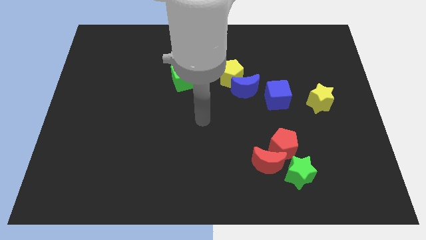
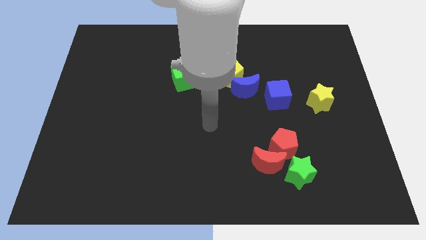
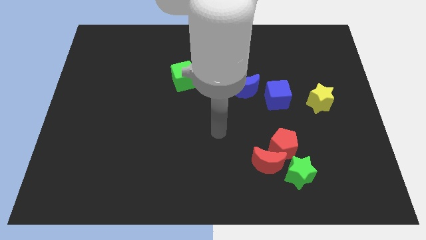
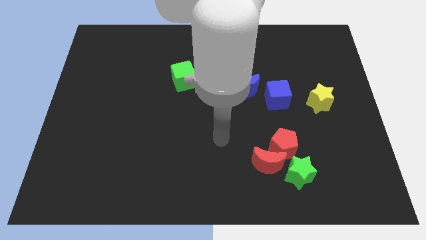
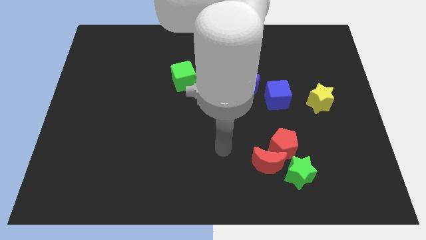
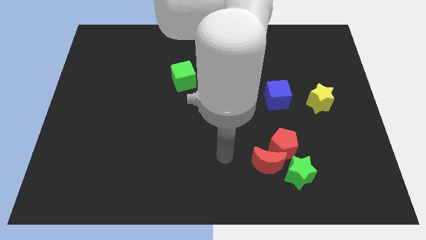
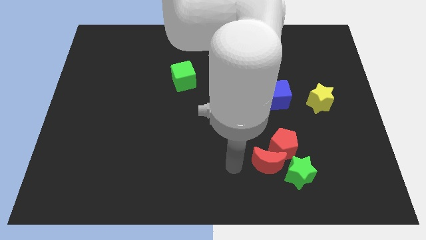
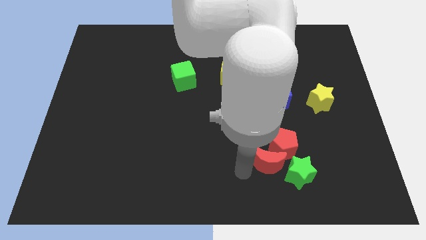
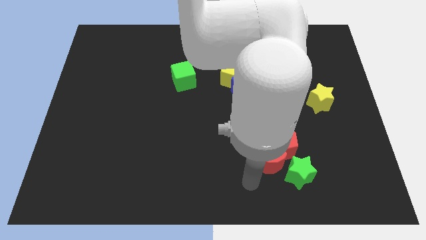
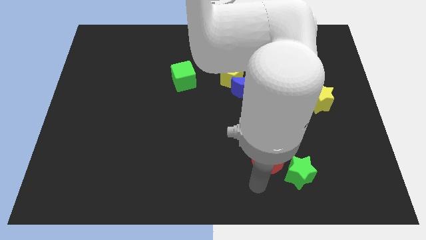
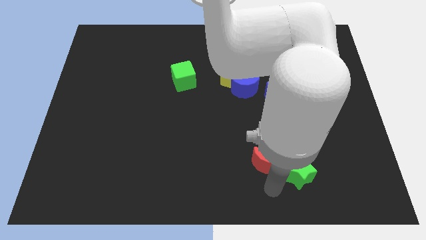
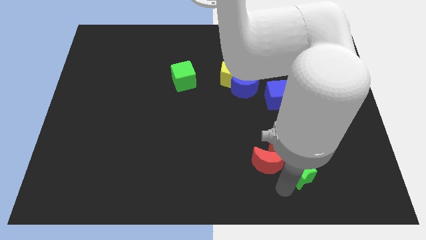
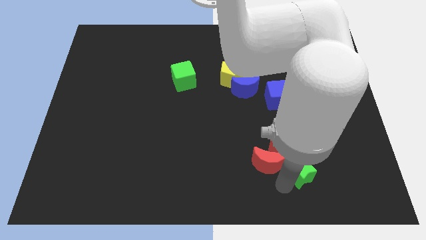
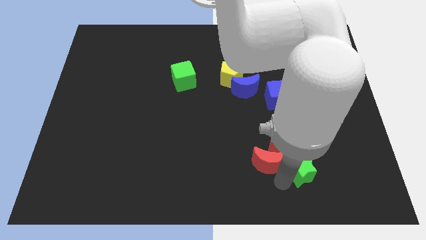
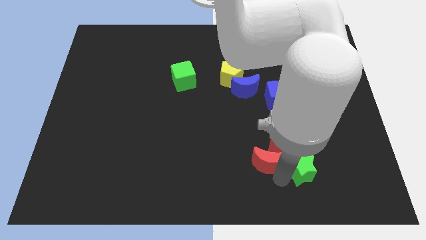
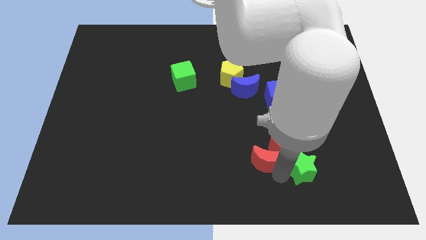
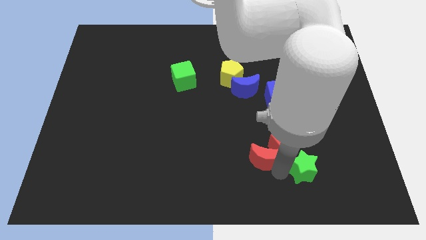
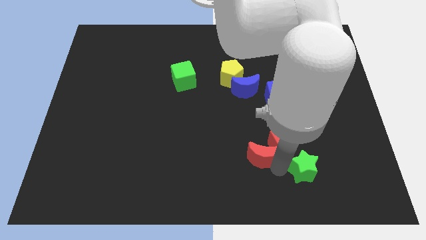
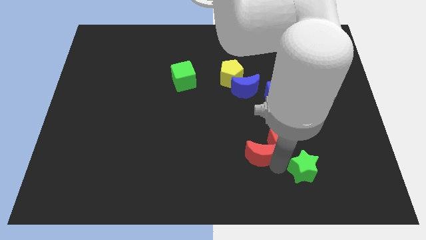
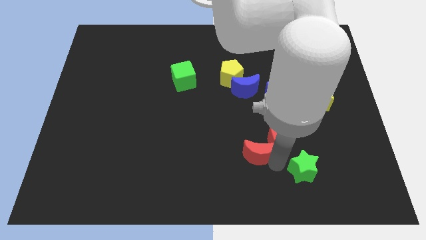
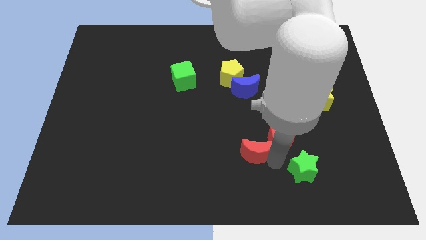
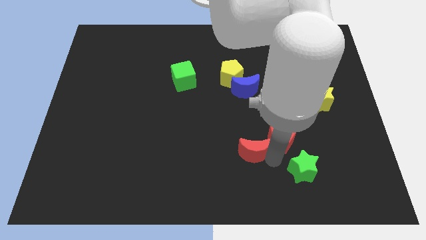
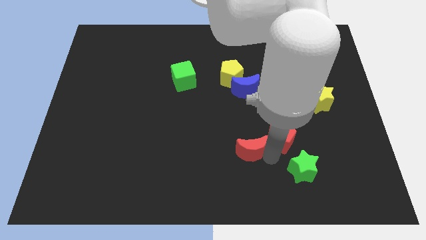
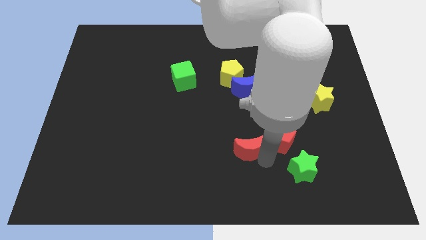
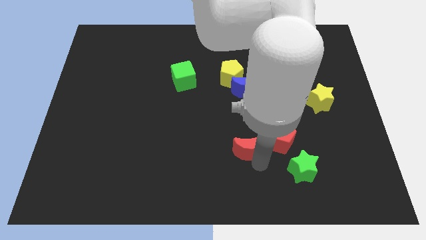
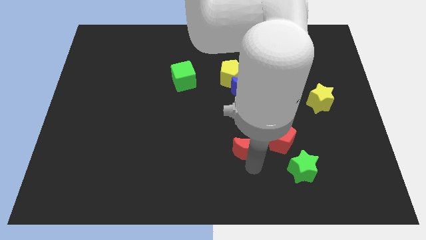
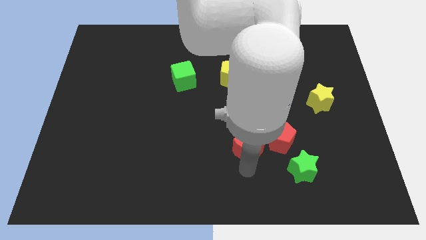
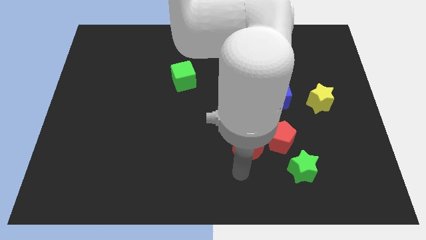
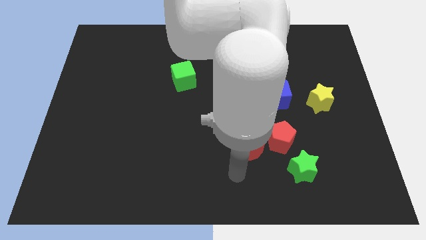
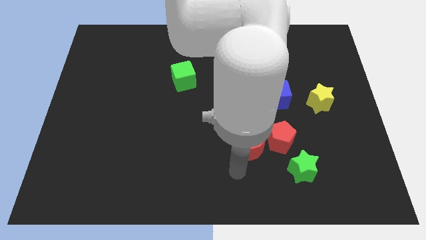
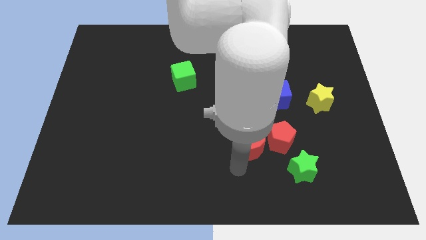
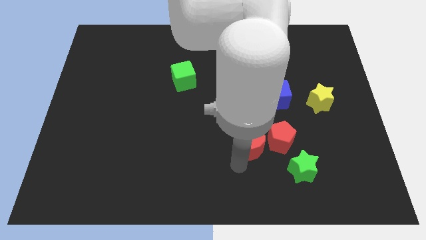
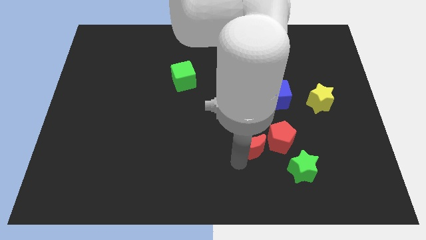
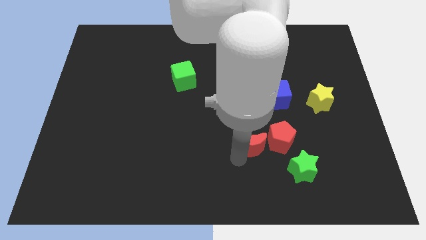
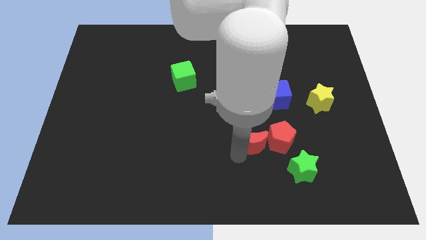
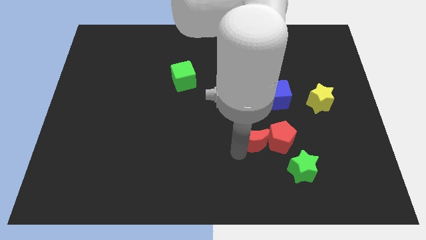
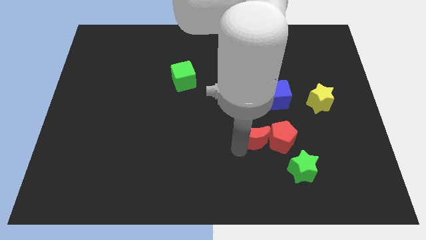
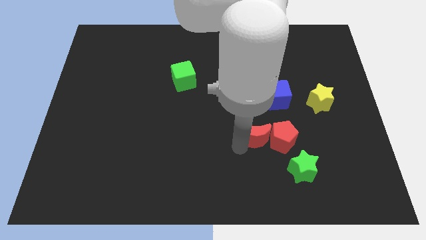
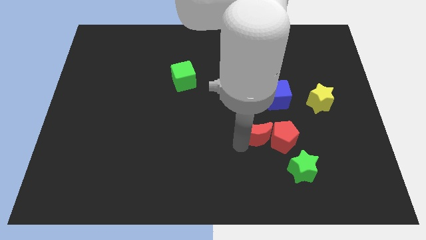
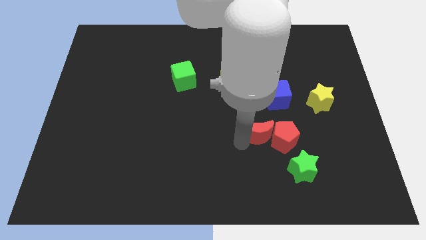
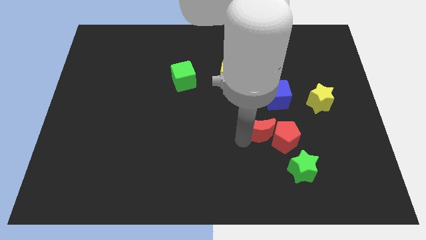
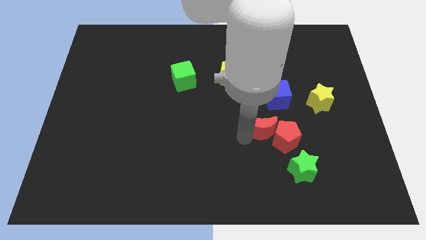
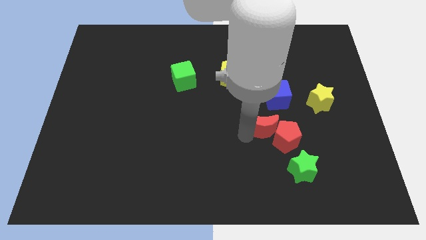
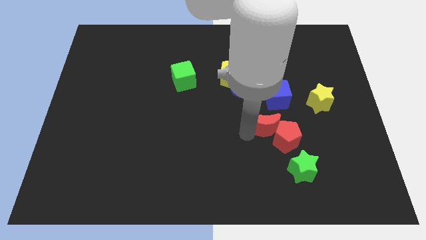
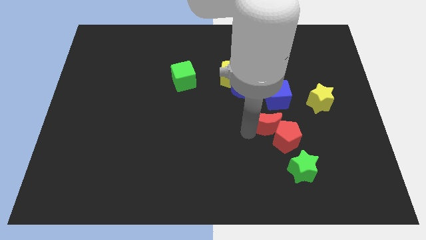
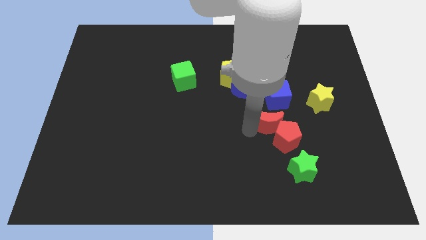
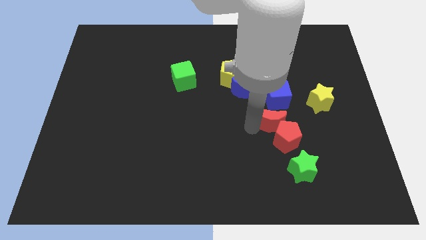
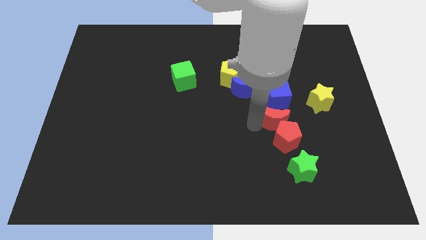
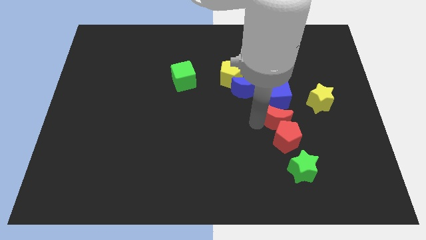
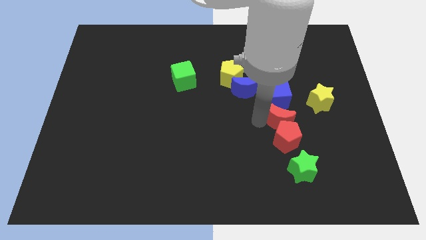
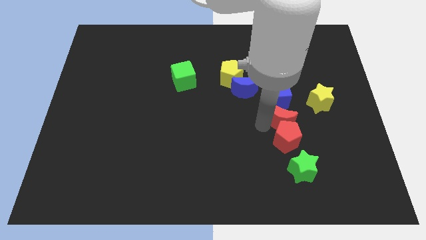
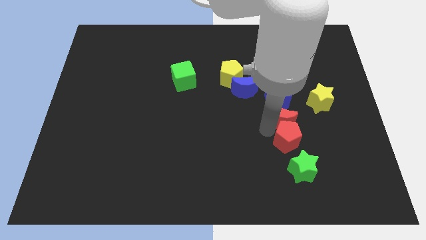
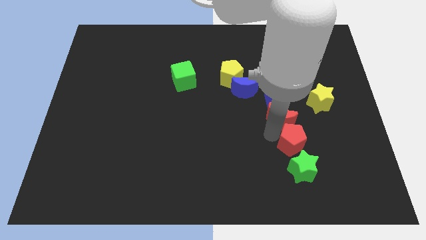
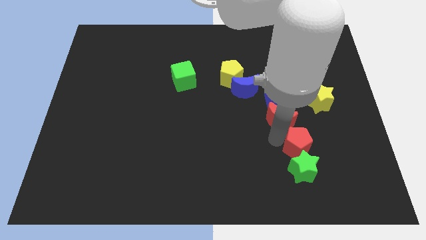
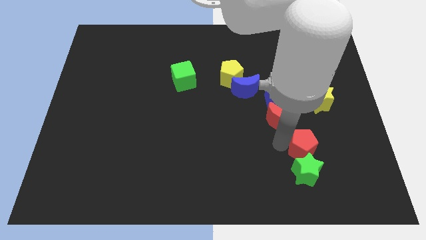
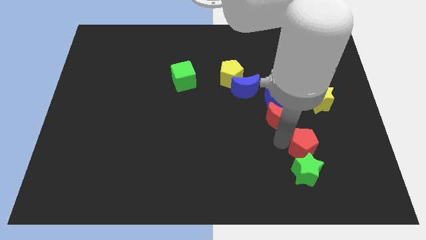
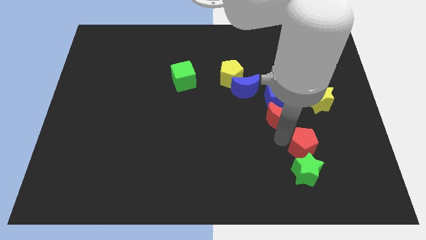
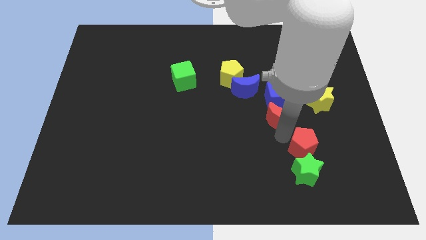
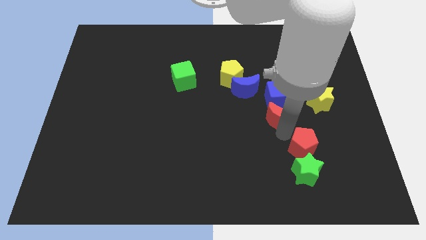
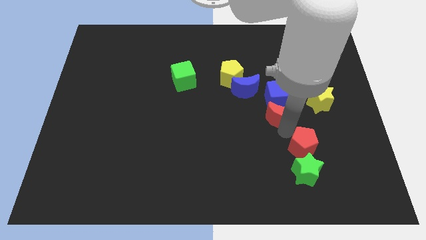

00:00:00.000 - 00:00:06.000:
put the red moon towards the blue cube
